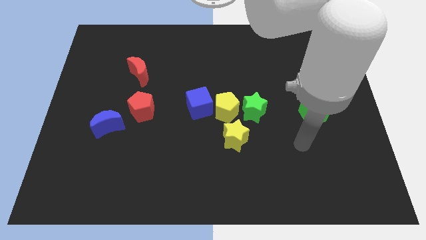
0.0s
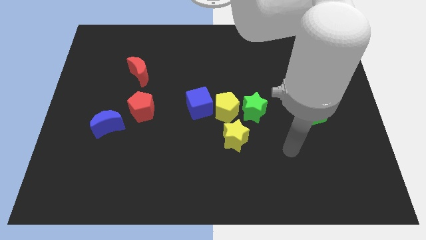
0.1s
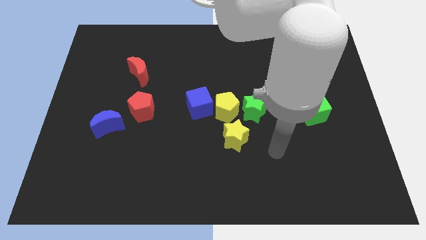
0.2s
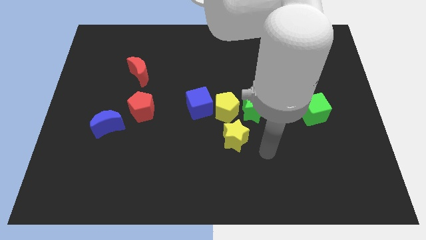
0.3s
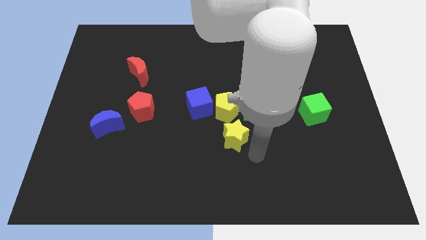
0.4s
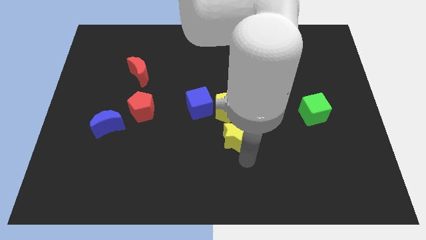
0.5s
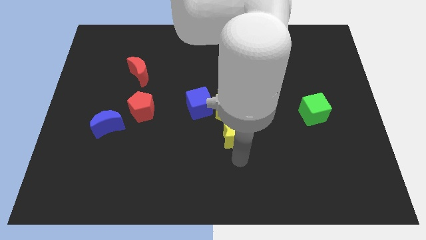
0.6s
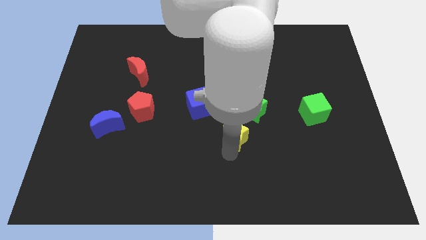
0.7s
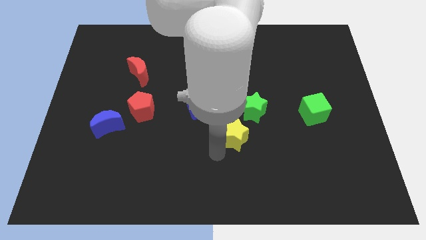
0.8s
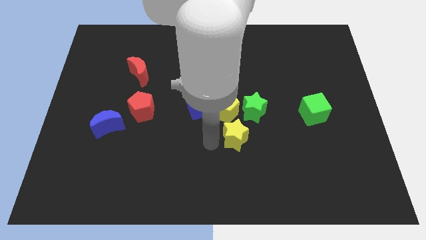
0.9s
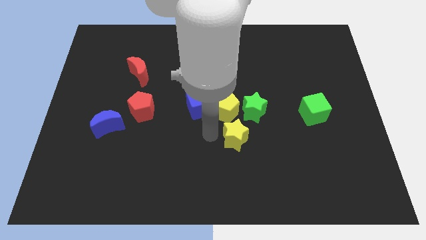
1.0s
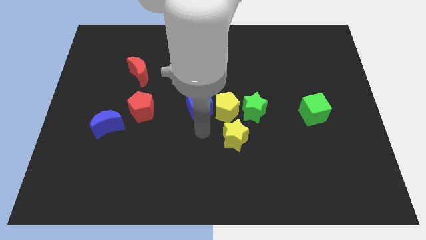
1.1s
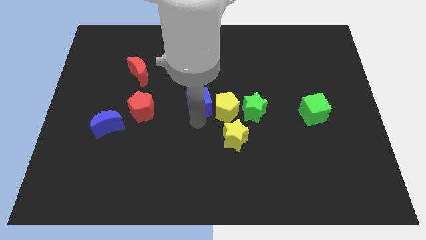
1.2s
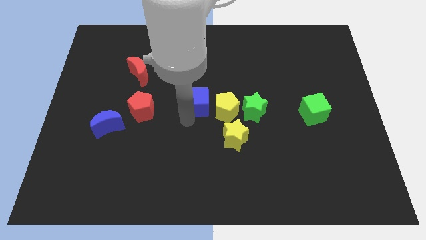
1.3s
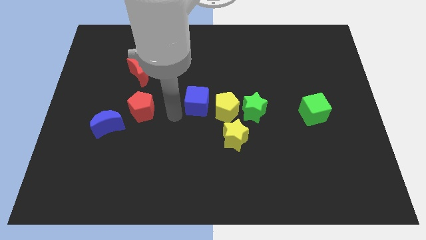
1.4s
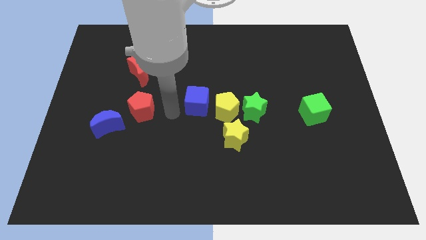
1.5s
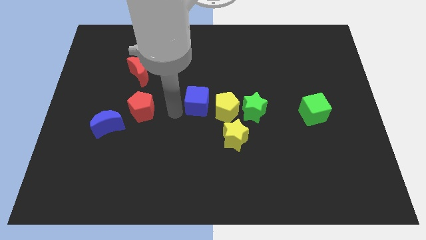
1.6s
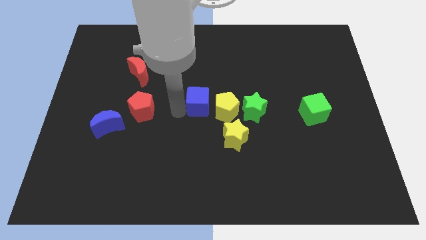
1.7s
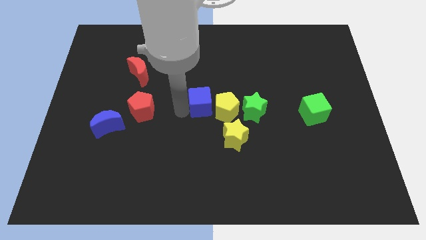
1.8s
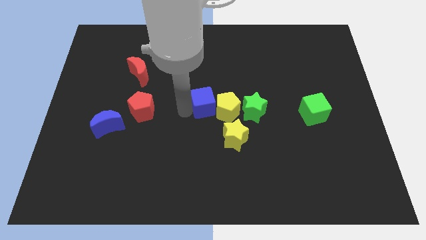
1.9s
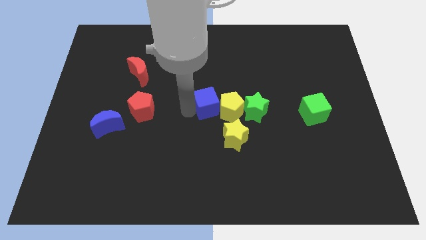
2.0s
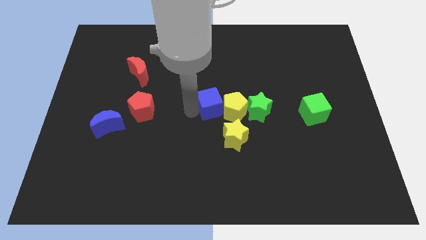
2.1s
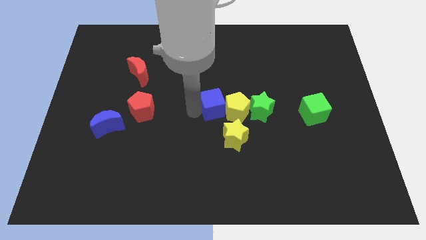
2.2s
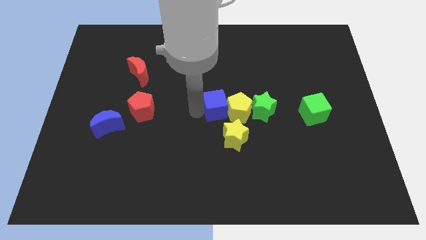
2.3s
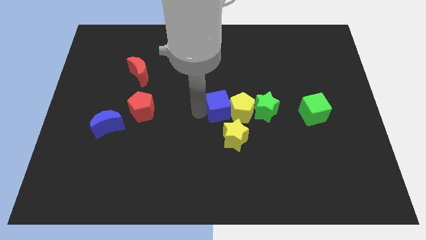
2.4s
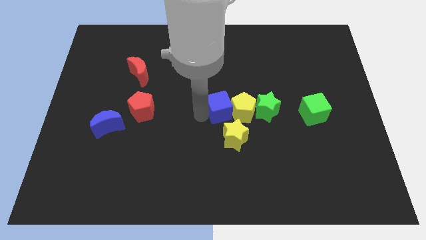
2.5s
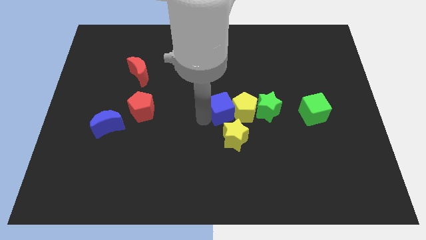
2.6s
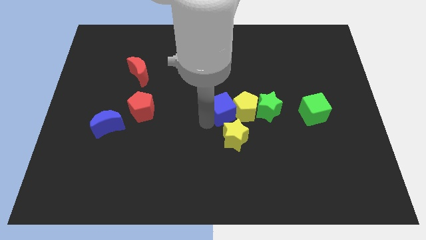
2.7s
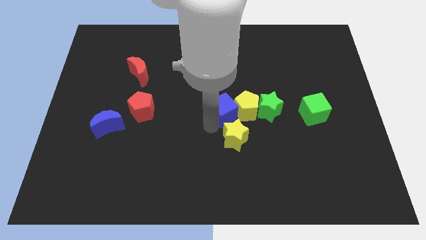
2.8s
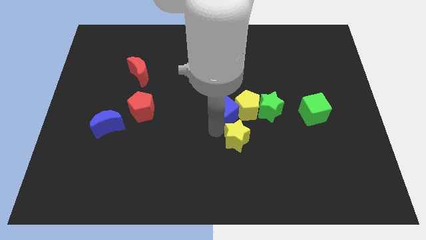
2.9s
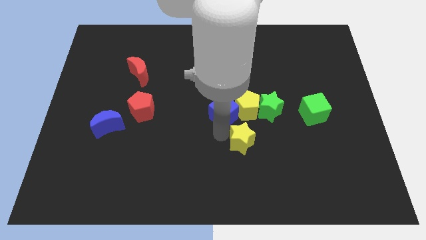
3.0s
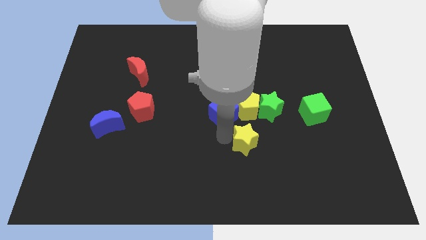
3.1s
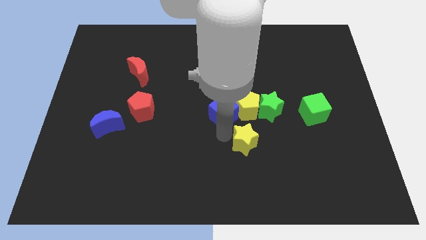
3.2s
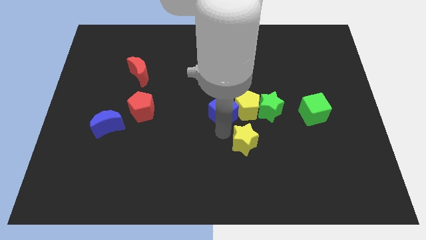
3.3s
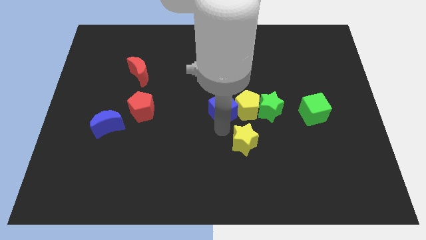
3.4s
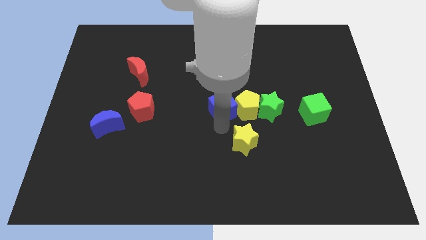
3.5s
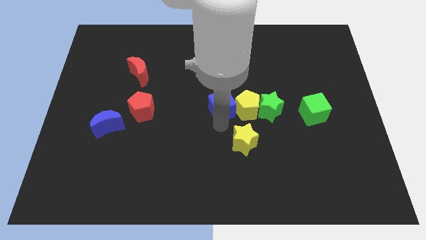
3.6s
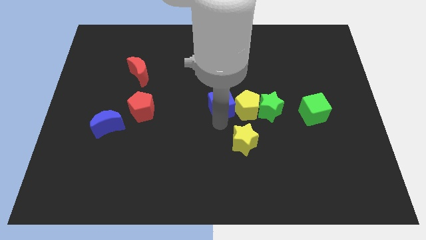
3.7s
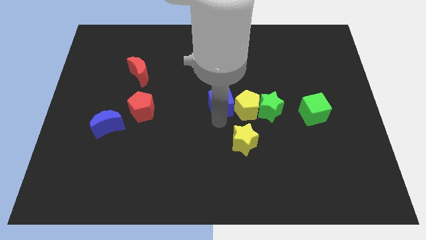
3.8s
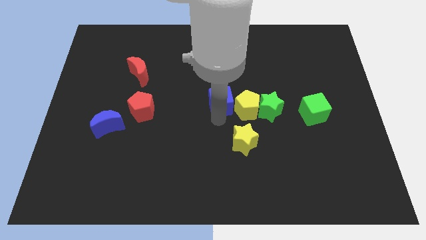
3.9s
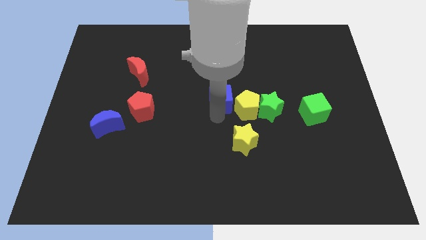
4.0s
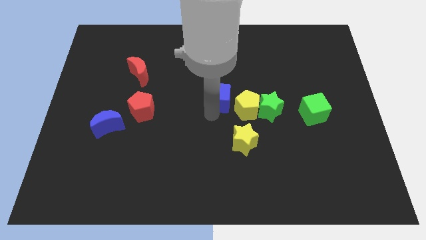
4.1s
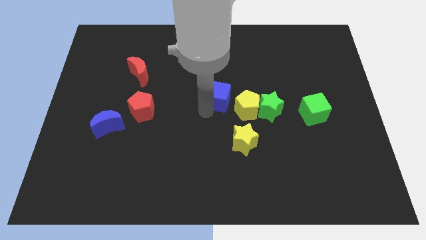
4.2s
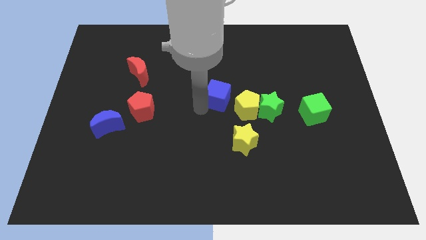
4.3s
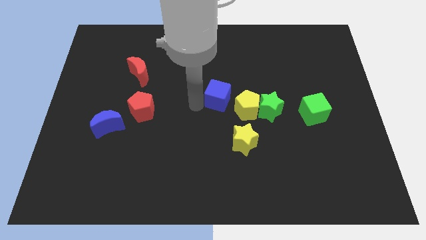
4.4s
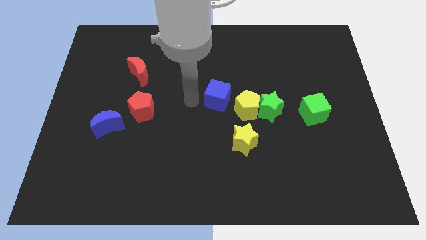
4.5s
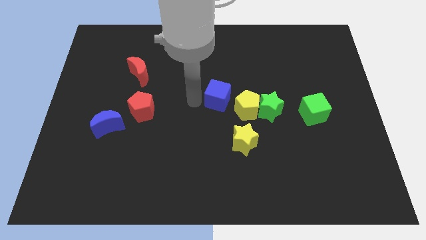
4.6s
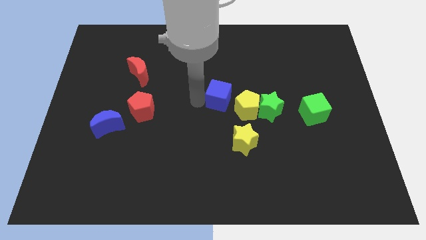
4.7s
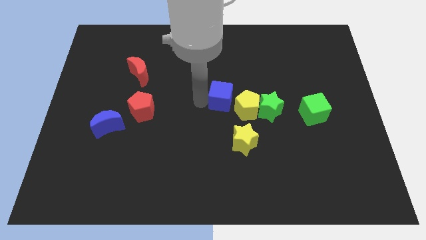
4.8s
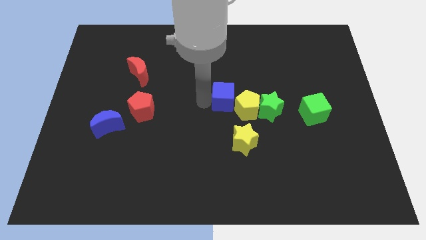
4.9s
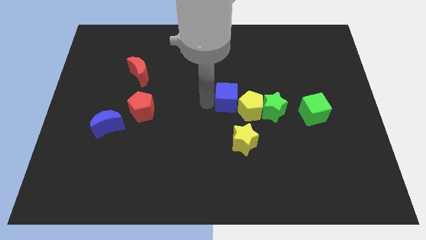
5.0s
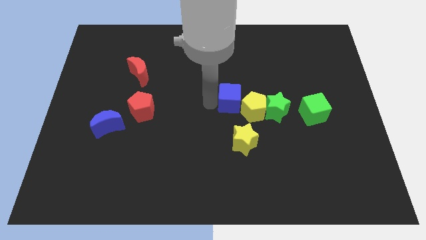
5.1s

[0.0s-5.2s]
slightly move the blue cube to the right

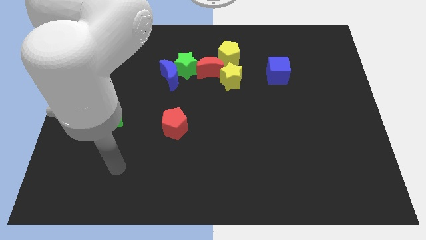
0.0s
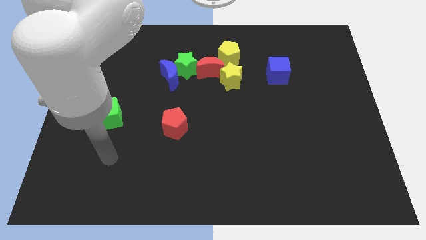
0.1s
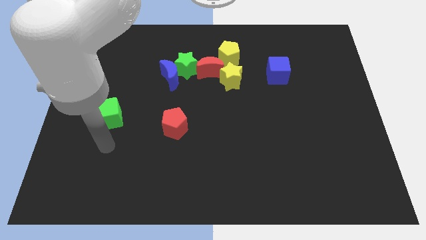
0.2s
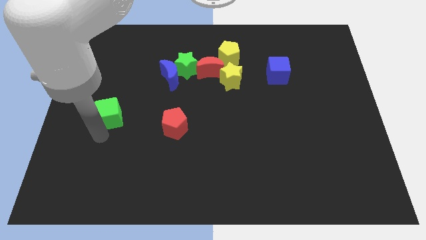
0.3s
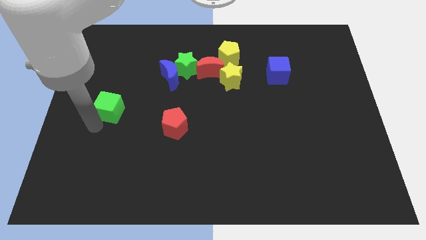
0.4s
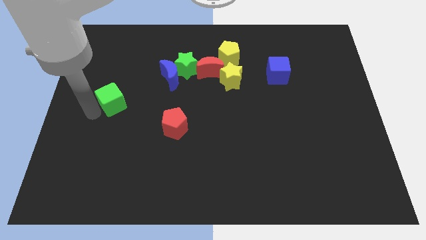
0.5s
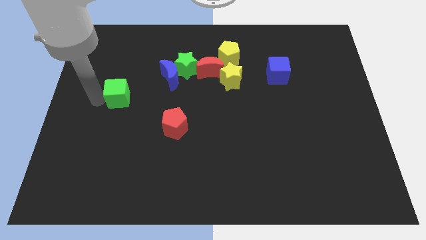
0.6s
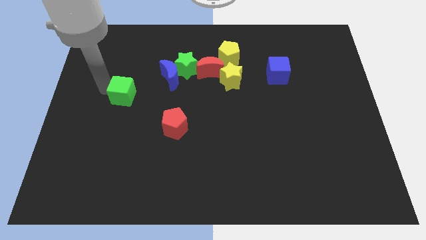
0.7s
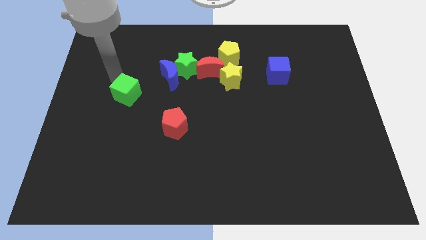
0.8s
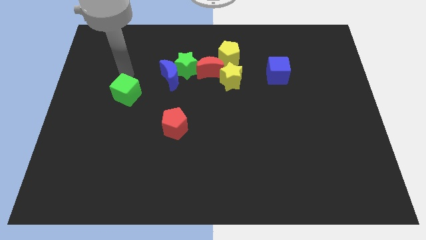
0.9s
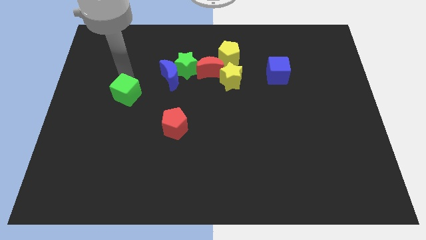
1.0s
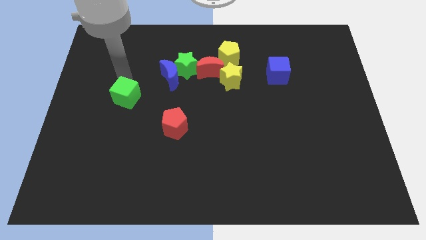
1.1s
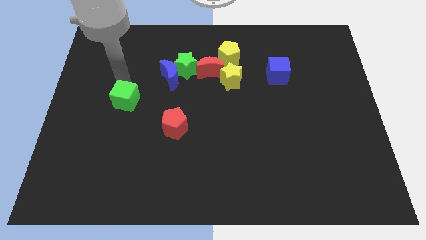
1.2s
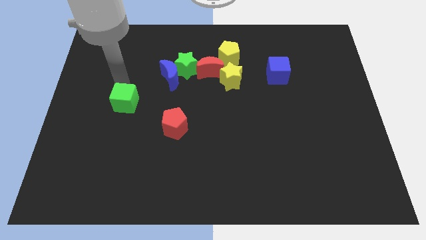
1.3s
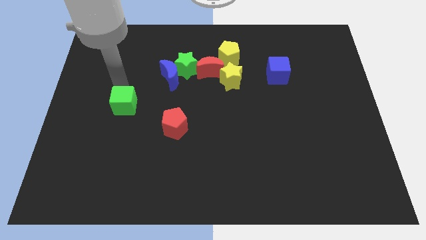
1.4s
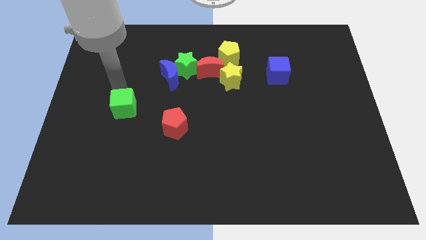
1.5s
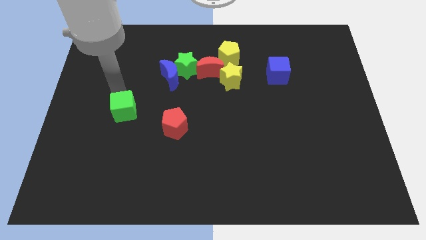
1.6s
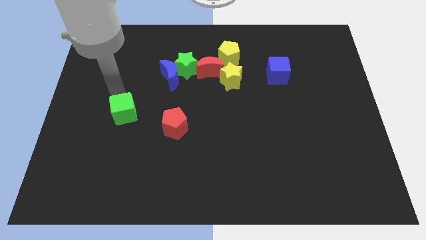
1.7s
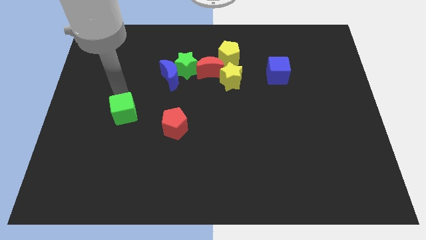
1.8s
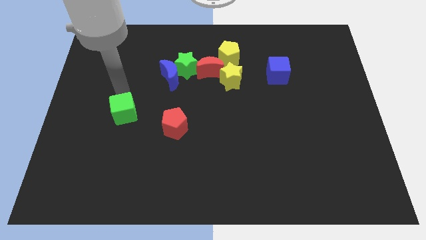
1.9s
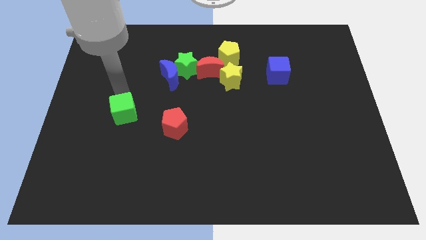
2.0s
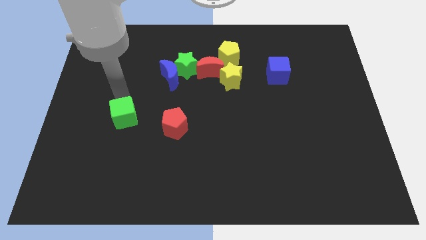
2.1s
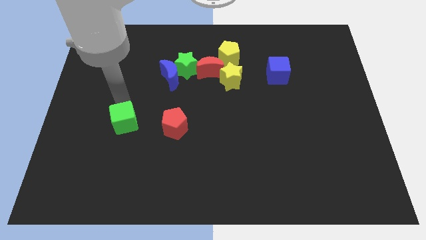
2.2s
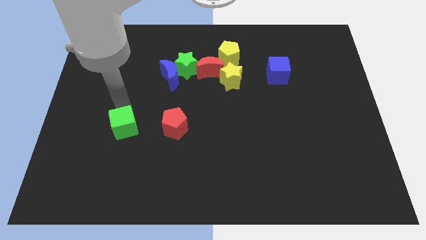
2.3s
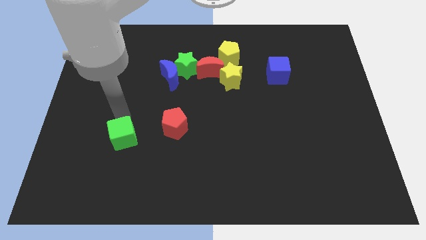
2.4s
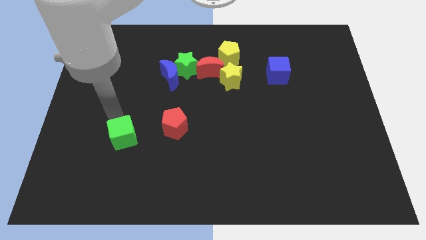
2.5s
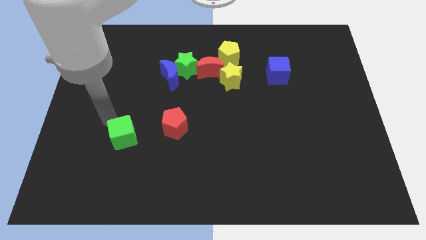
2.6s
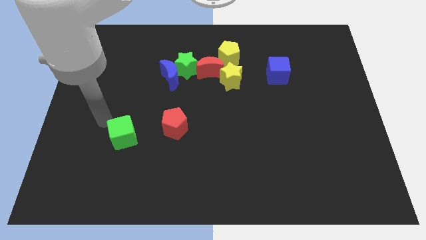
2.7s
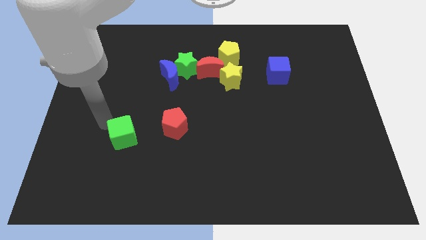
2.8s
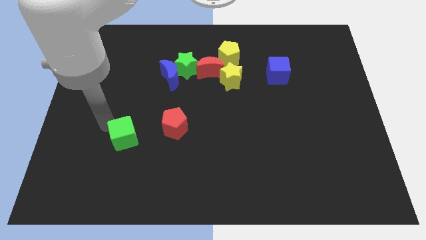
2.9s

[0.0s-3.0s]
push the green cube downwards and then to the right somewhat

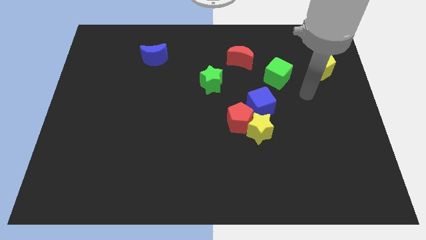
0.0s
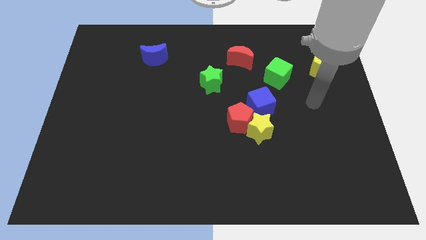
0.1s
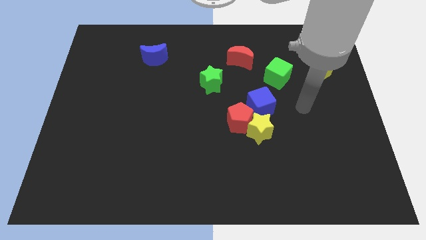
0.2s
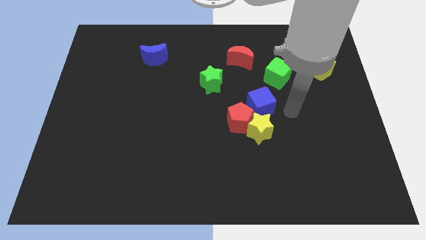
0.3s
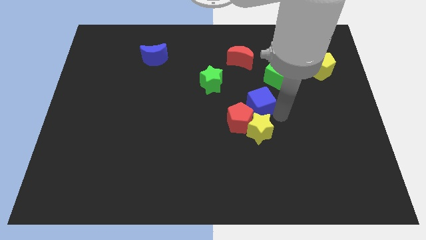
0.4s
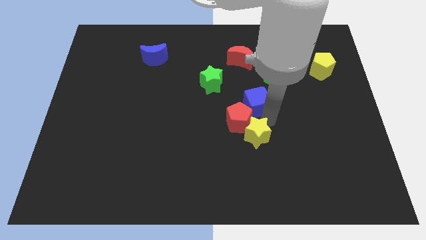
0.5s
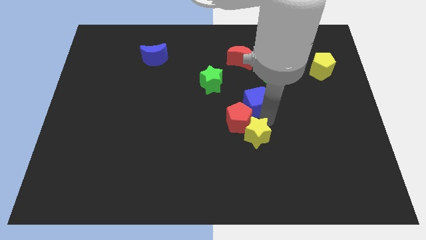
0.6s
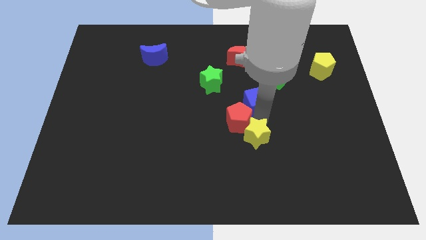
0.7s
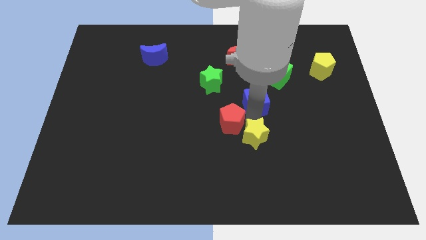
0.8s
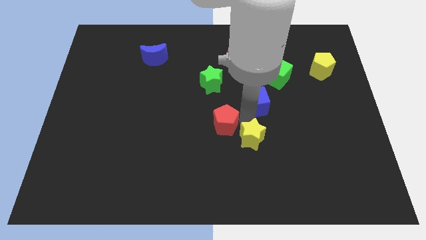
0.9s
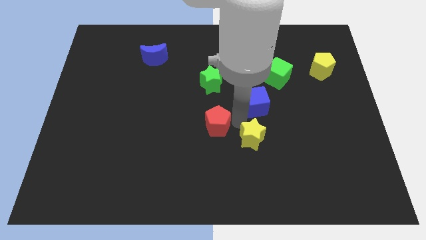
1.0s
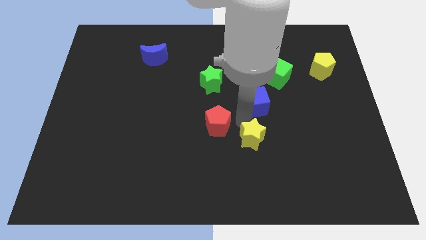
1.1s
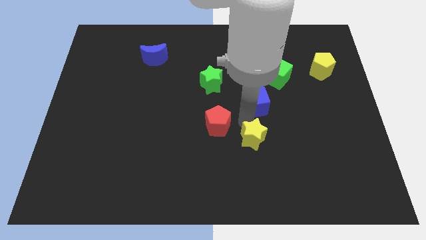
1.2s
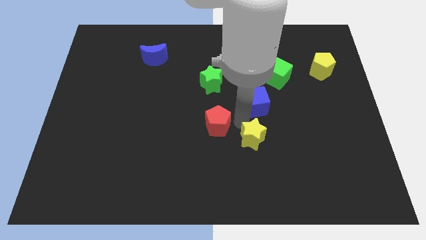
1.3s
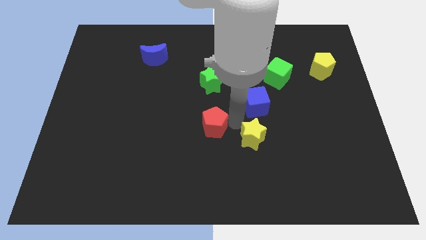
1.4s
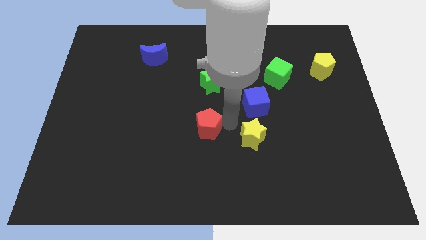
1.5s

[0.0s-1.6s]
slightly move the red pentagon left
